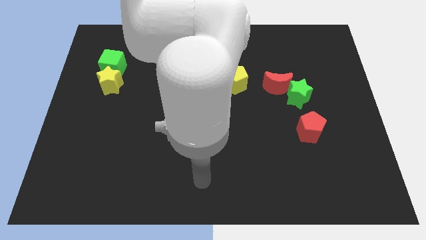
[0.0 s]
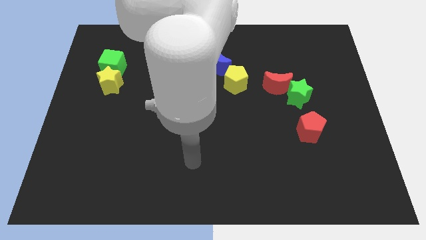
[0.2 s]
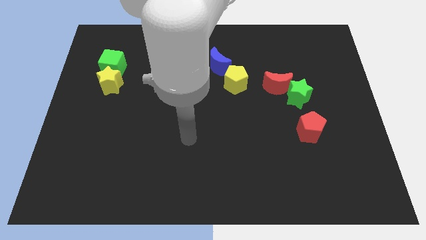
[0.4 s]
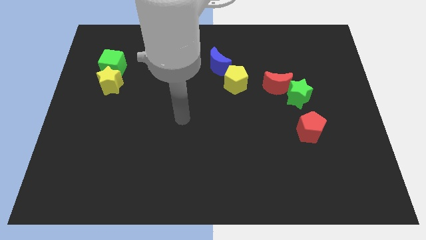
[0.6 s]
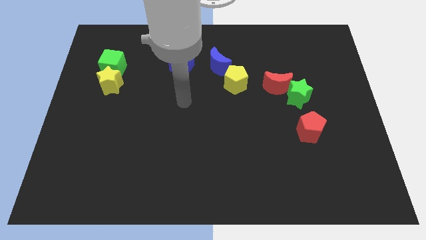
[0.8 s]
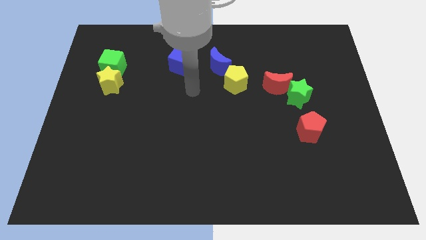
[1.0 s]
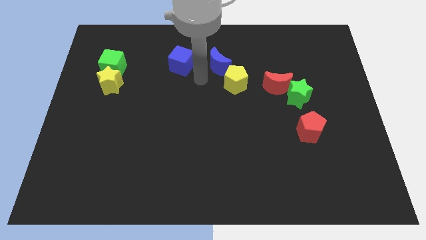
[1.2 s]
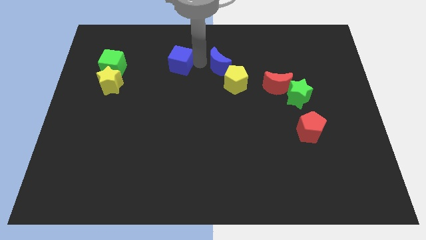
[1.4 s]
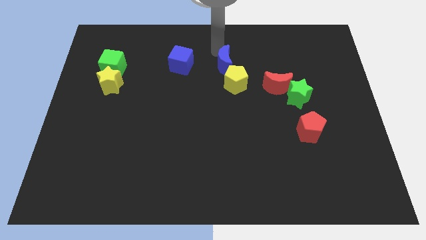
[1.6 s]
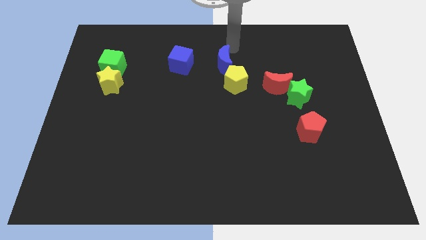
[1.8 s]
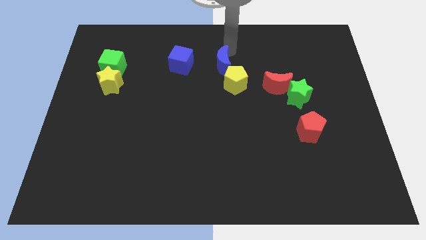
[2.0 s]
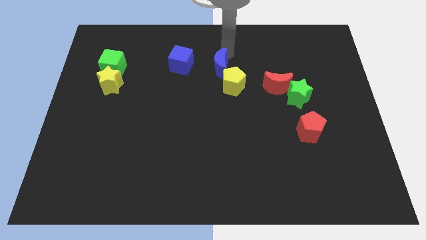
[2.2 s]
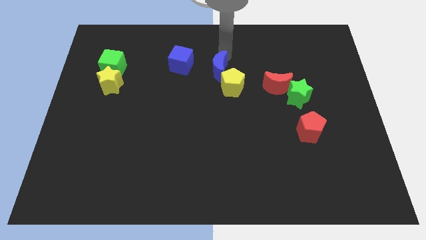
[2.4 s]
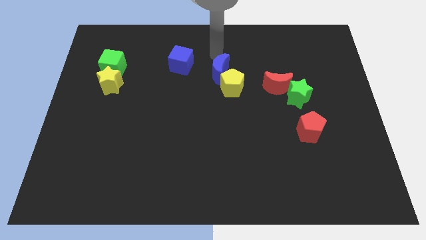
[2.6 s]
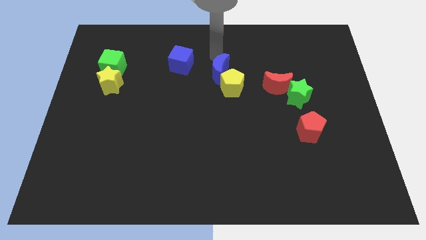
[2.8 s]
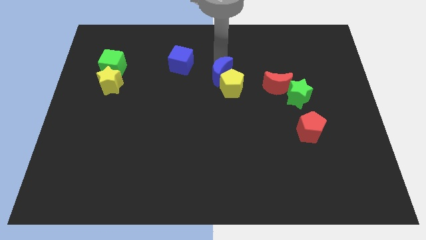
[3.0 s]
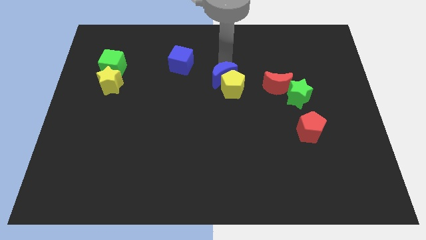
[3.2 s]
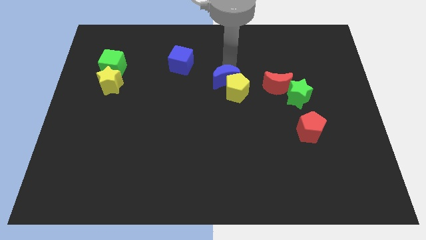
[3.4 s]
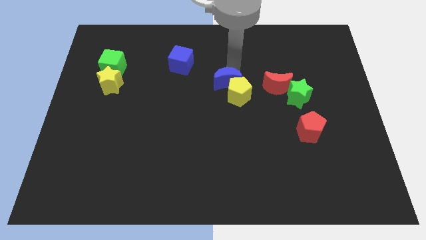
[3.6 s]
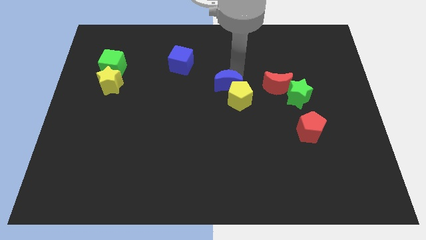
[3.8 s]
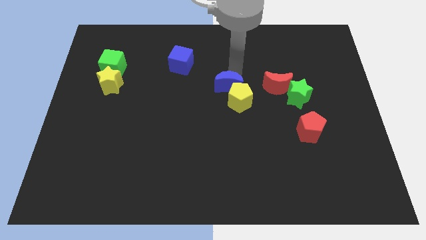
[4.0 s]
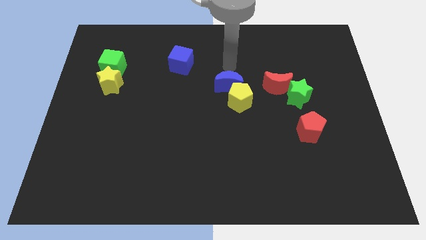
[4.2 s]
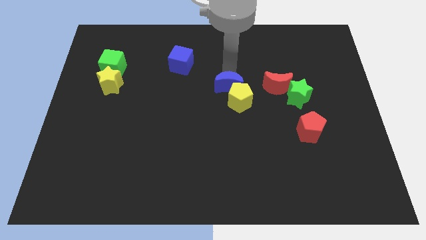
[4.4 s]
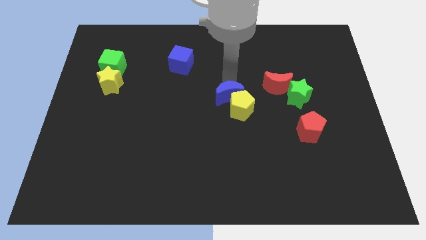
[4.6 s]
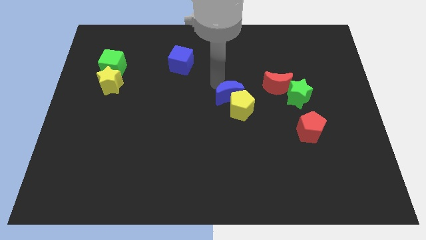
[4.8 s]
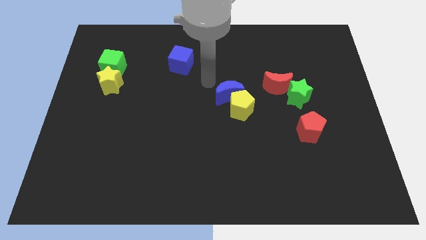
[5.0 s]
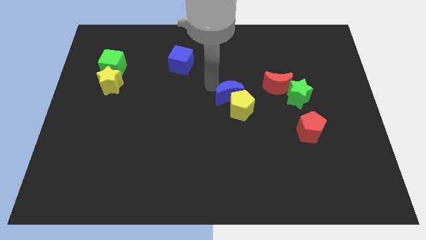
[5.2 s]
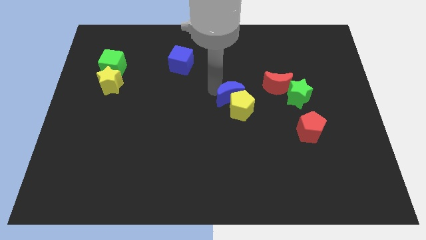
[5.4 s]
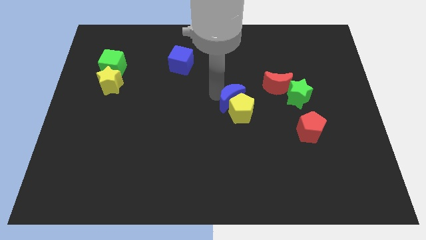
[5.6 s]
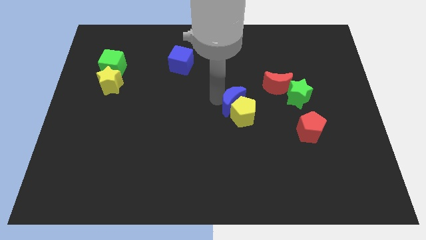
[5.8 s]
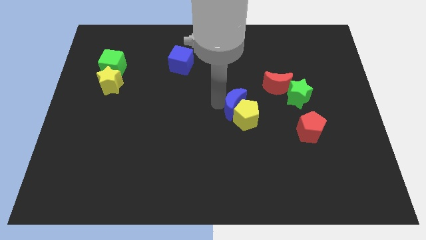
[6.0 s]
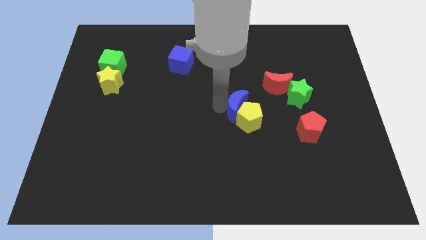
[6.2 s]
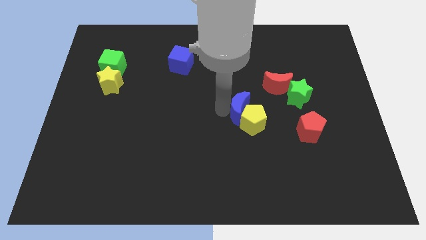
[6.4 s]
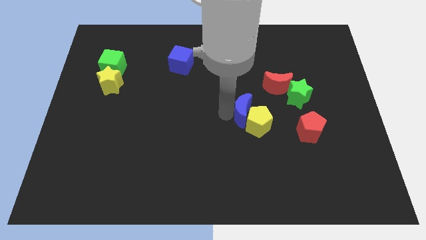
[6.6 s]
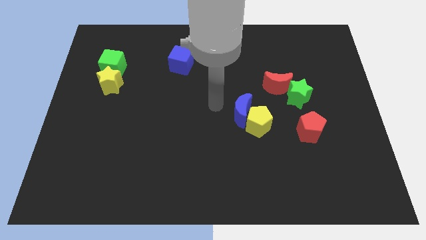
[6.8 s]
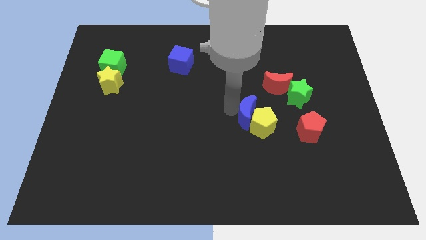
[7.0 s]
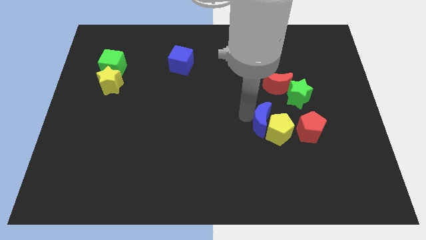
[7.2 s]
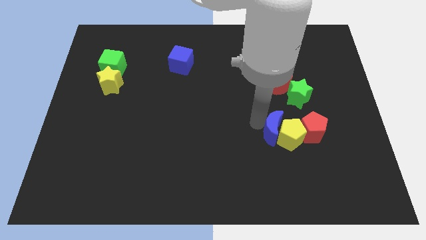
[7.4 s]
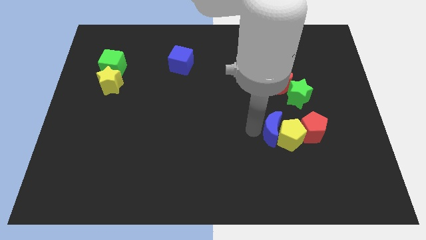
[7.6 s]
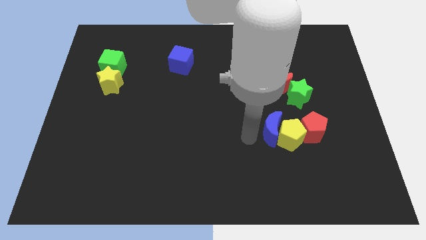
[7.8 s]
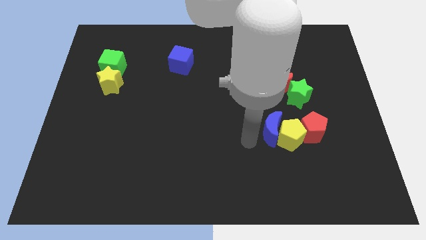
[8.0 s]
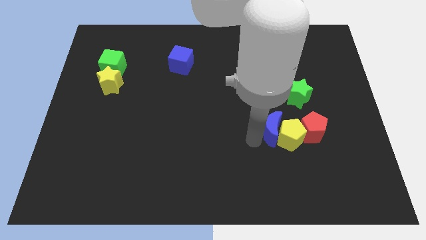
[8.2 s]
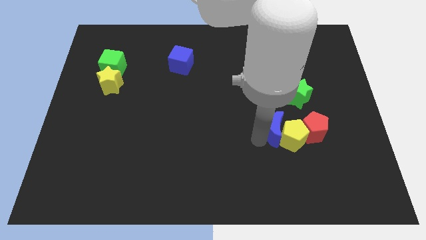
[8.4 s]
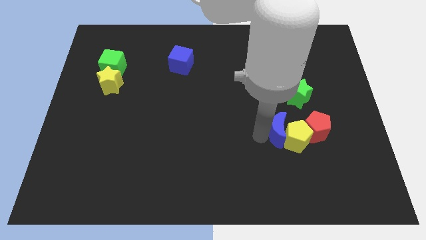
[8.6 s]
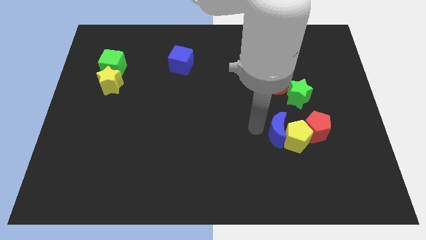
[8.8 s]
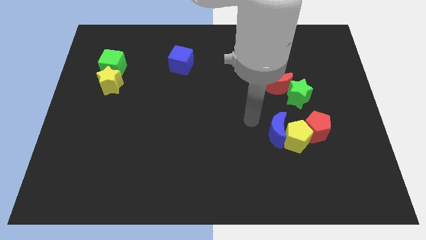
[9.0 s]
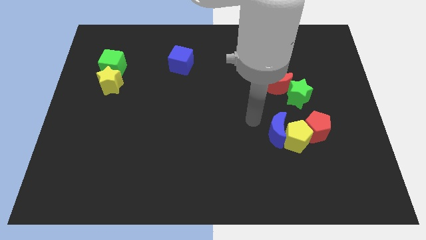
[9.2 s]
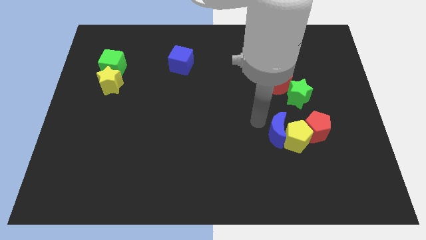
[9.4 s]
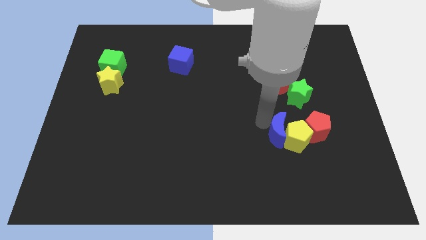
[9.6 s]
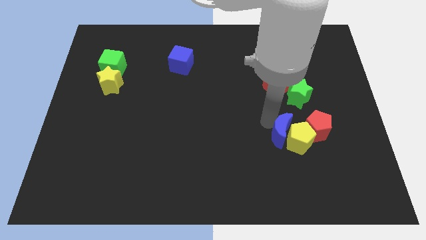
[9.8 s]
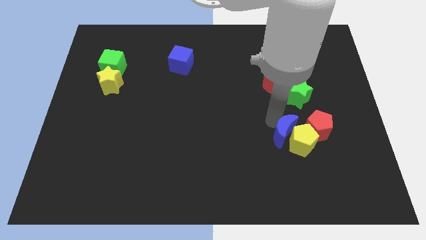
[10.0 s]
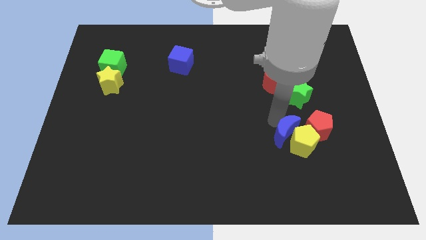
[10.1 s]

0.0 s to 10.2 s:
put the blue moon to the bottom side of the green star

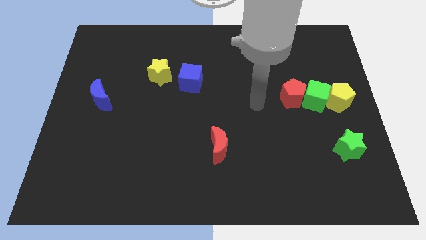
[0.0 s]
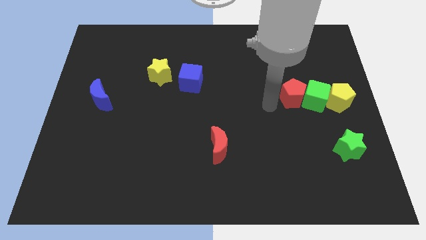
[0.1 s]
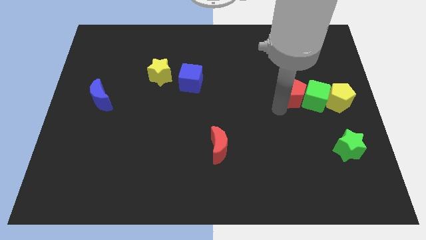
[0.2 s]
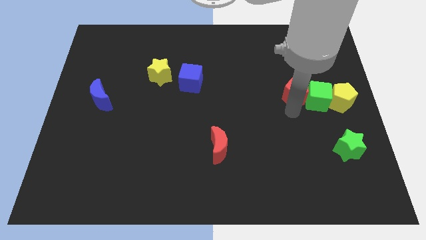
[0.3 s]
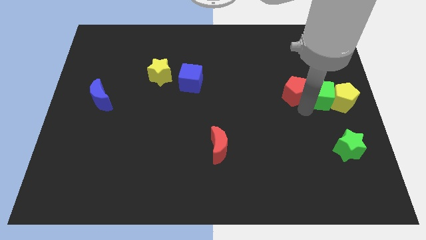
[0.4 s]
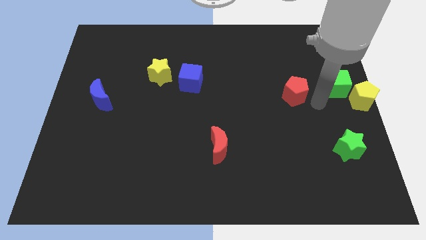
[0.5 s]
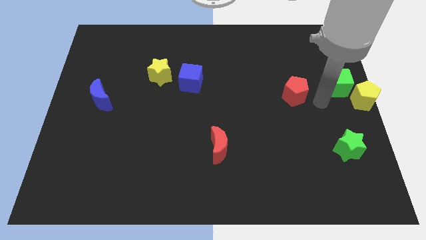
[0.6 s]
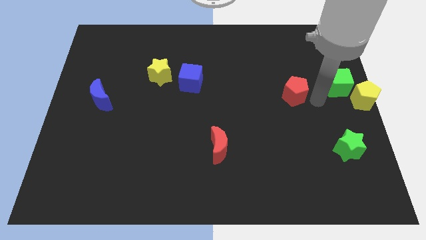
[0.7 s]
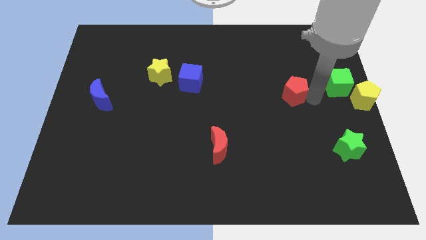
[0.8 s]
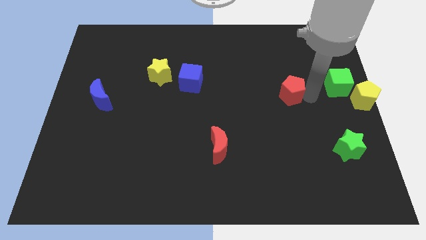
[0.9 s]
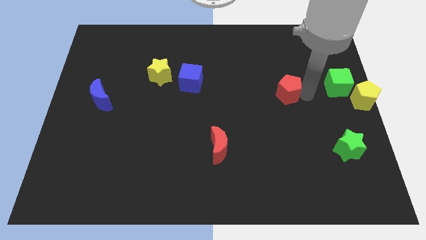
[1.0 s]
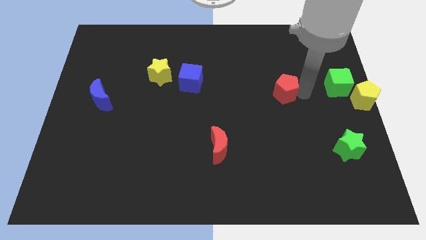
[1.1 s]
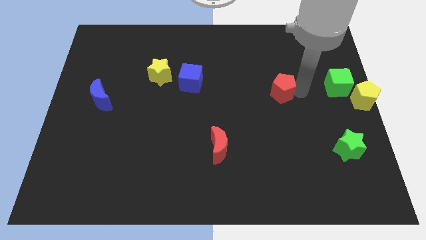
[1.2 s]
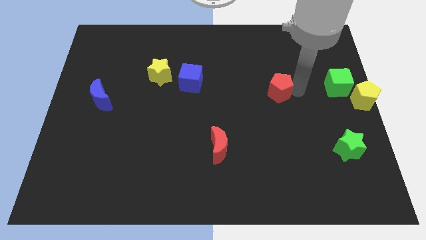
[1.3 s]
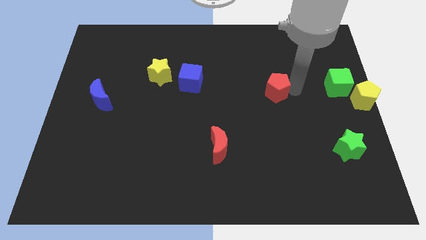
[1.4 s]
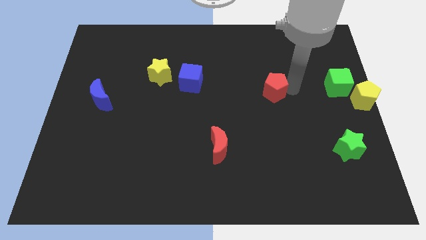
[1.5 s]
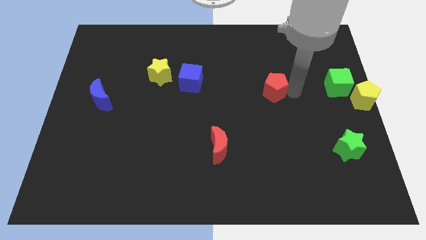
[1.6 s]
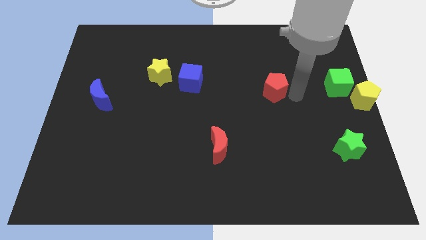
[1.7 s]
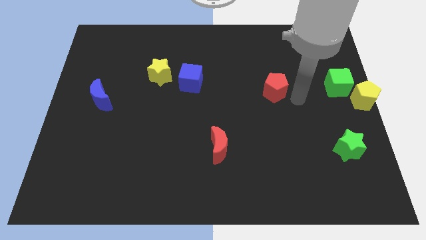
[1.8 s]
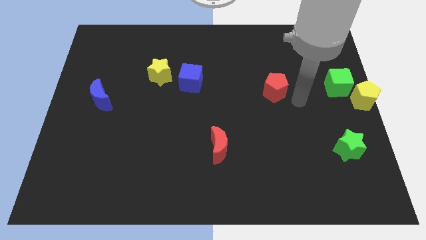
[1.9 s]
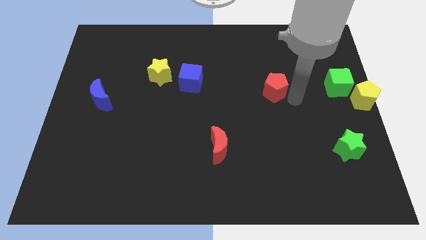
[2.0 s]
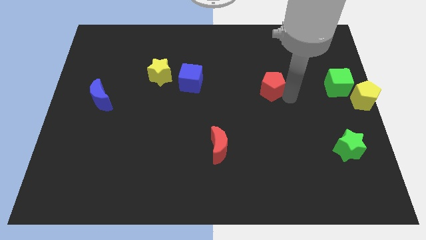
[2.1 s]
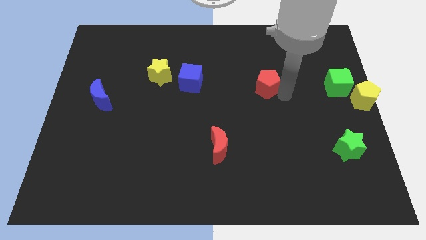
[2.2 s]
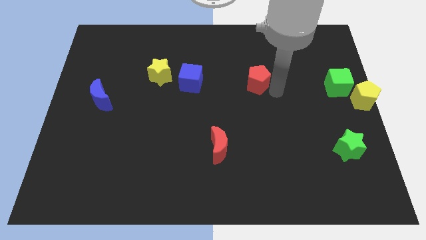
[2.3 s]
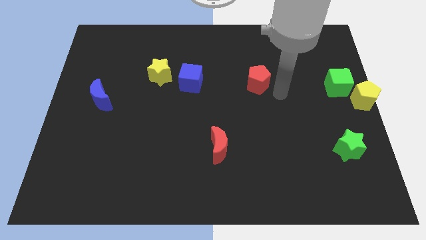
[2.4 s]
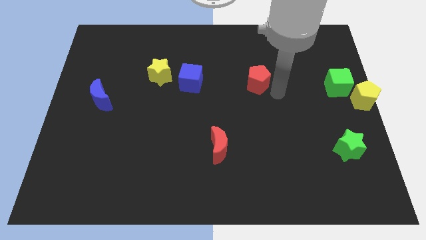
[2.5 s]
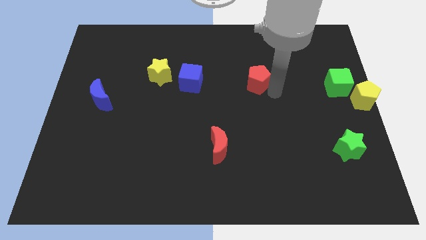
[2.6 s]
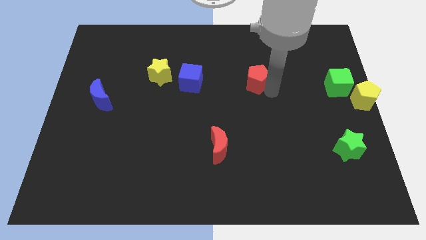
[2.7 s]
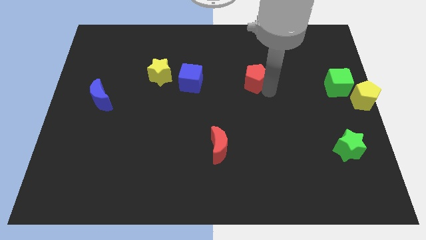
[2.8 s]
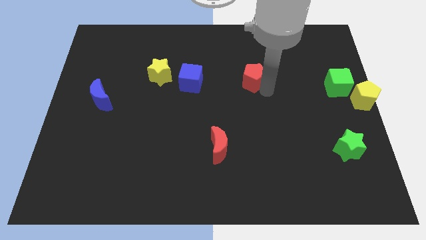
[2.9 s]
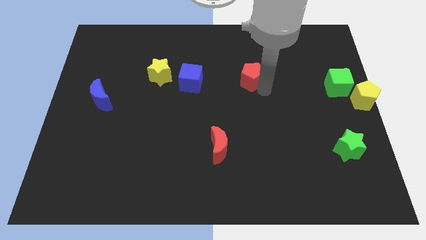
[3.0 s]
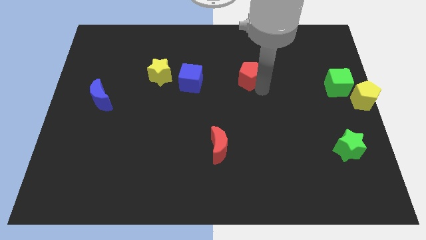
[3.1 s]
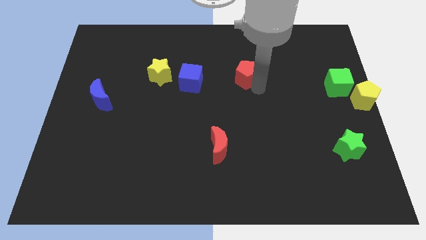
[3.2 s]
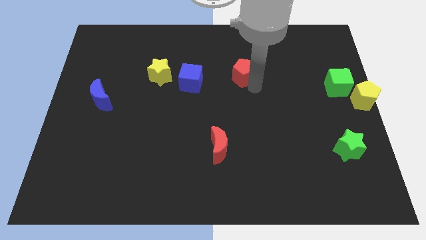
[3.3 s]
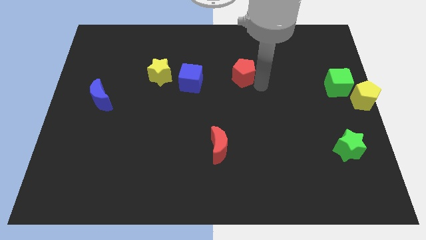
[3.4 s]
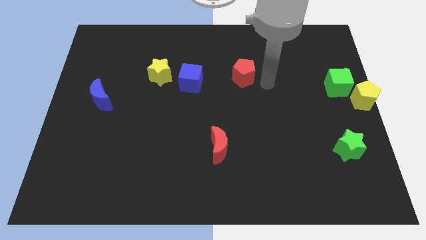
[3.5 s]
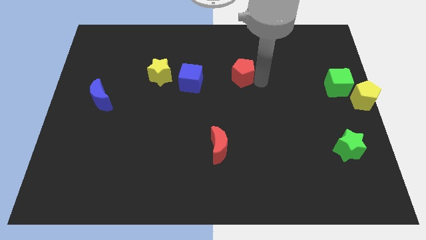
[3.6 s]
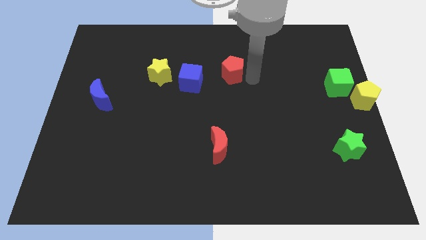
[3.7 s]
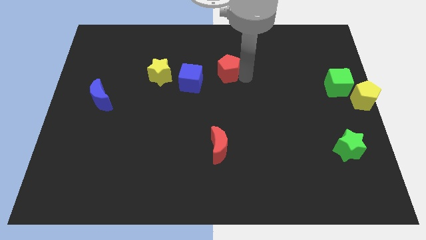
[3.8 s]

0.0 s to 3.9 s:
put the red pentagon to the top right side of the blue cube
